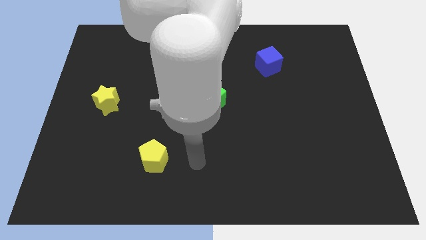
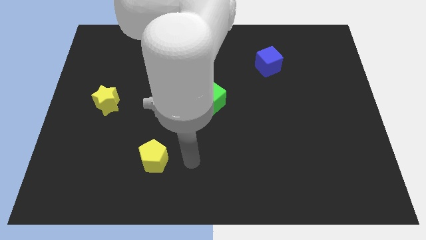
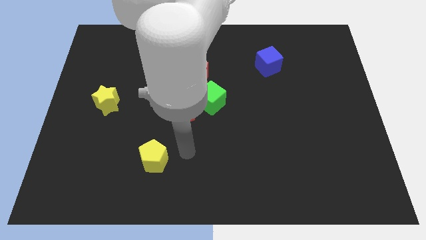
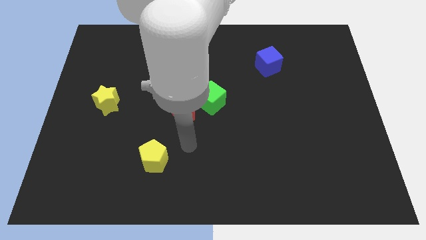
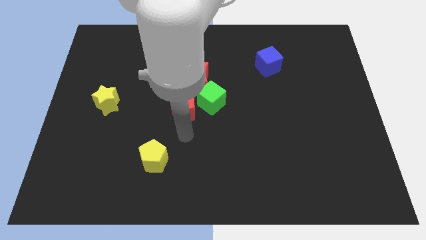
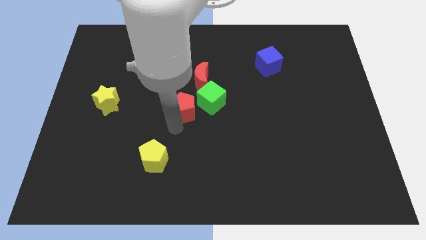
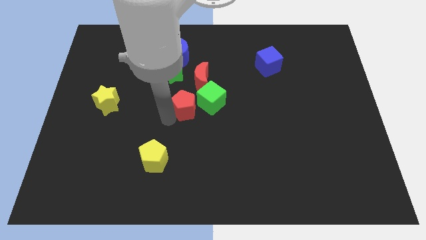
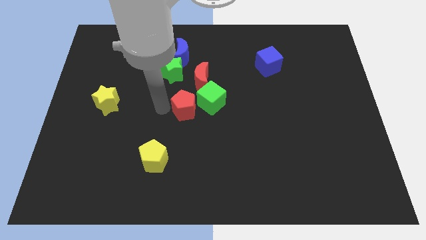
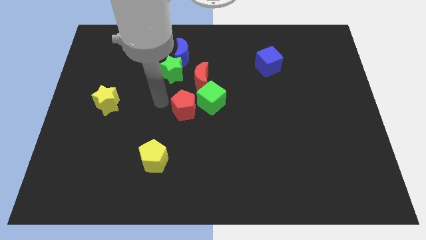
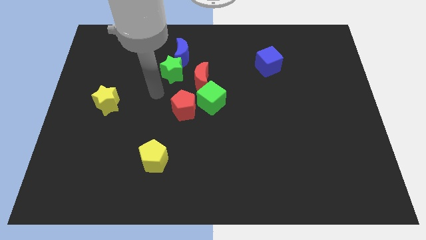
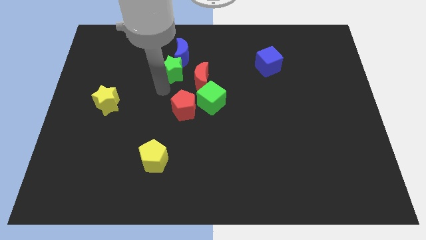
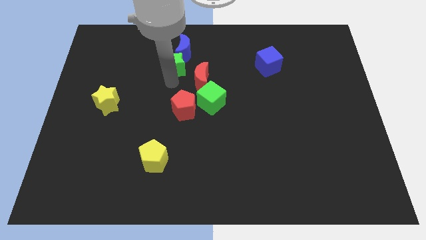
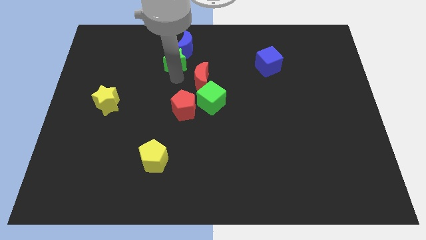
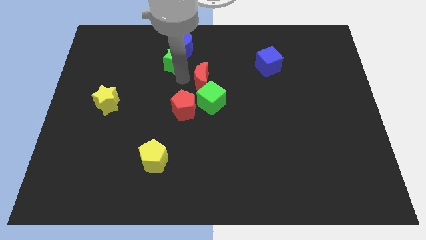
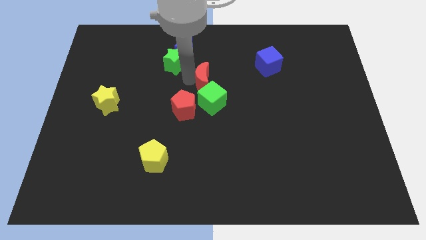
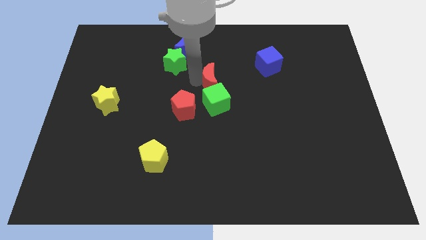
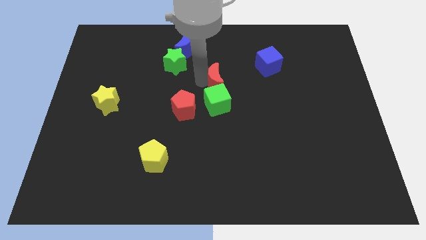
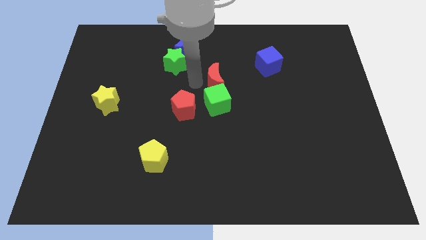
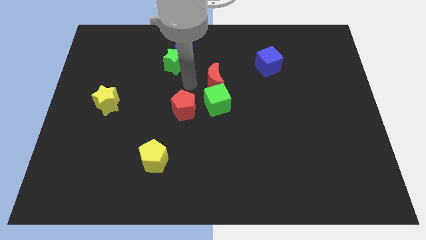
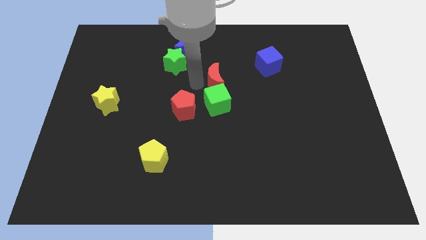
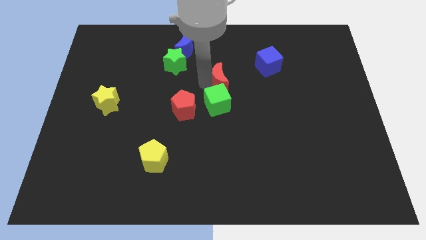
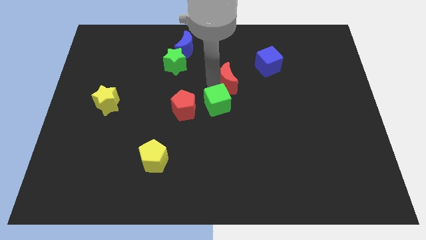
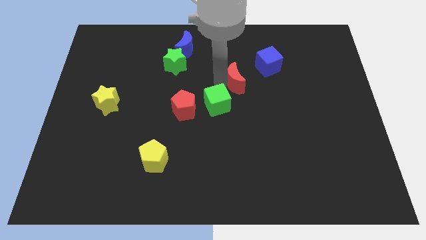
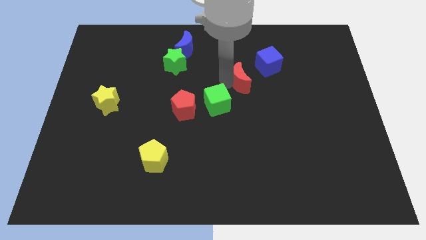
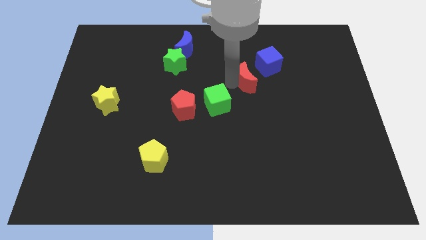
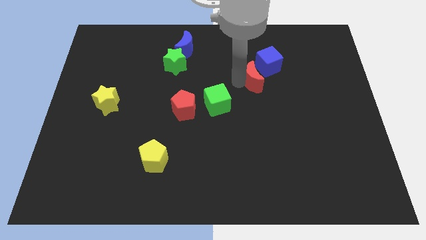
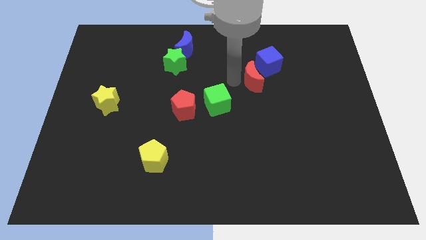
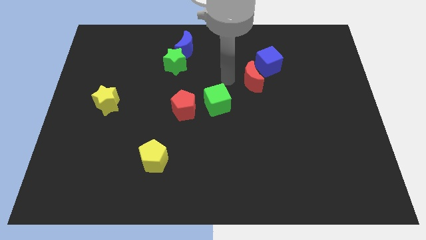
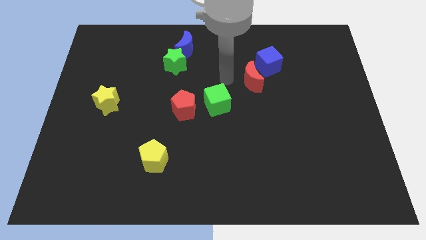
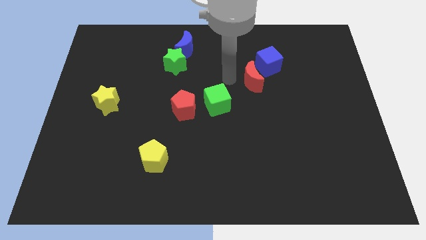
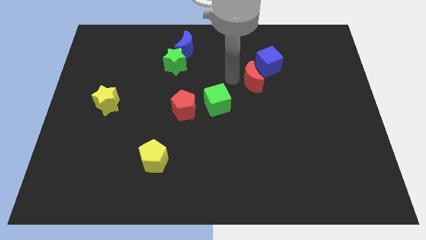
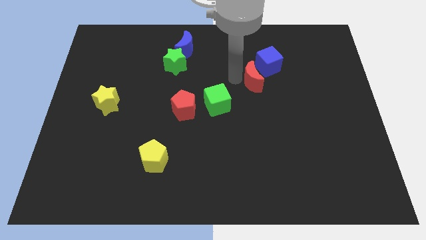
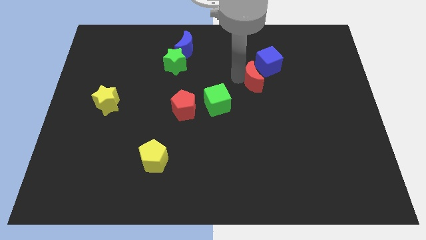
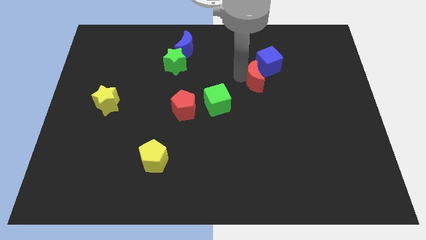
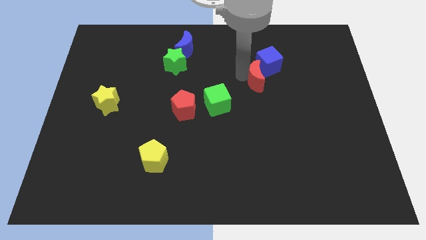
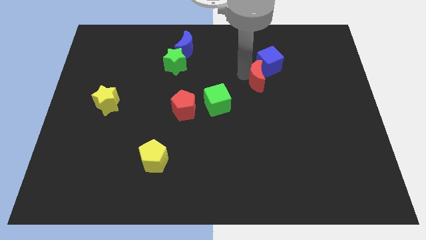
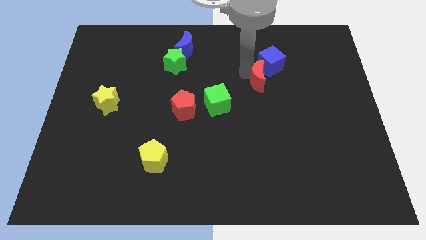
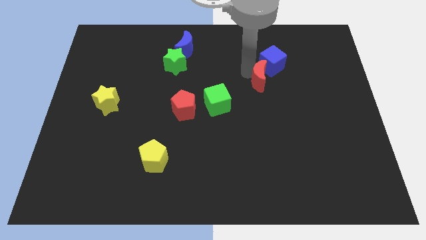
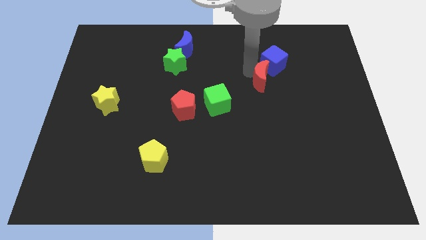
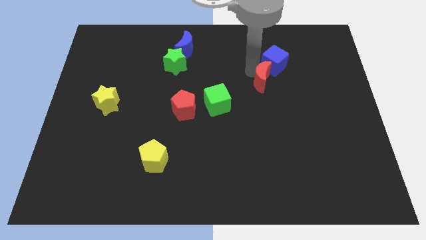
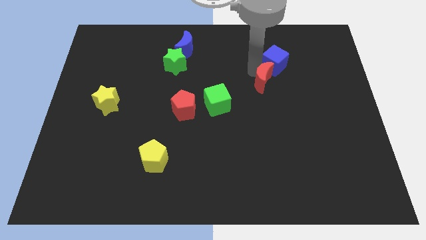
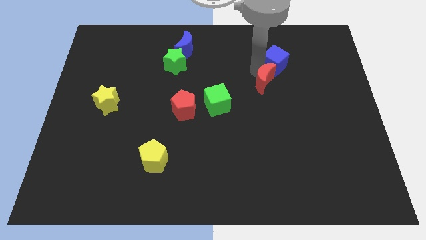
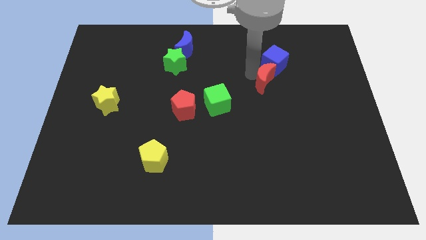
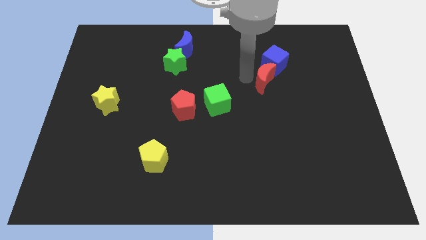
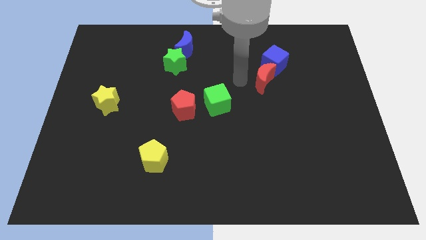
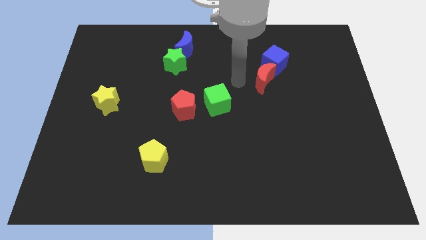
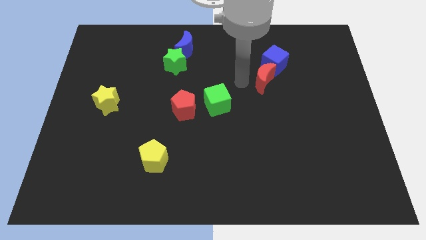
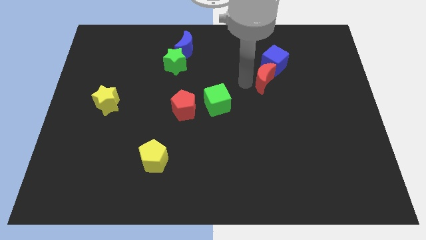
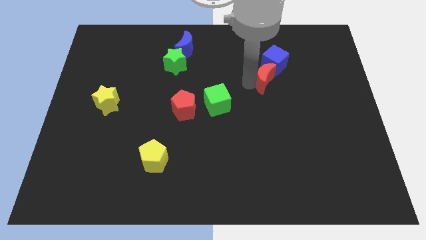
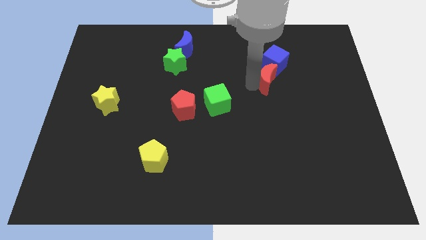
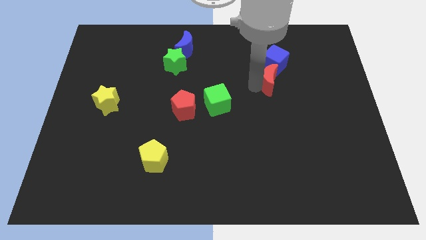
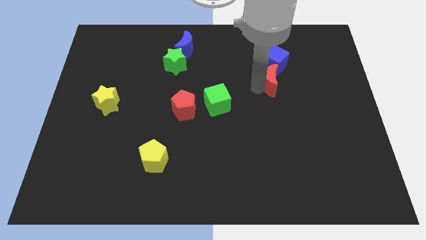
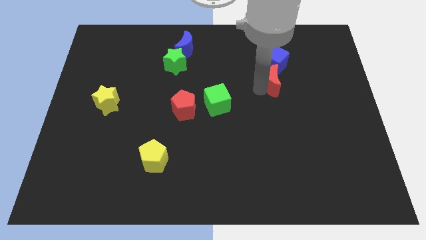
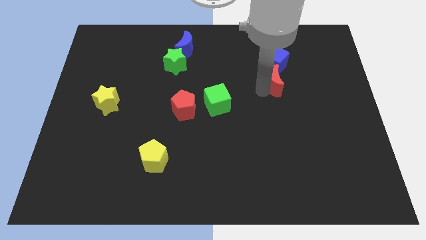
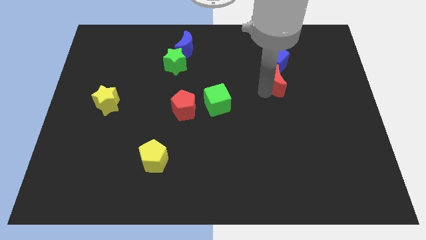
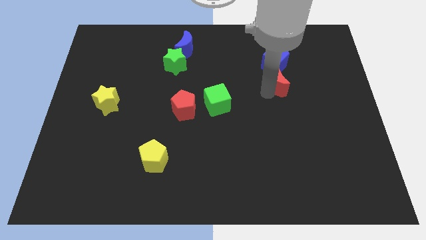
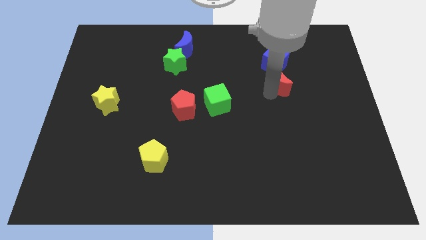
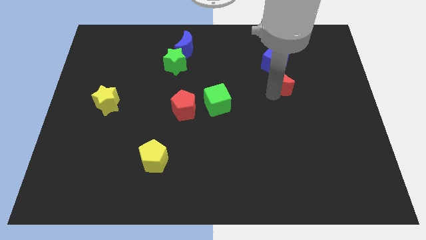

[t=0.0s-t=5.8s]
put the red moon diagonally down and to the right of the blue cube

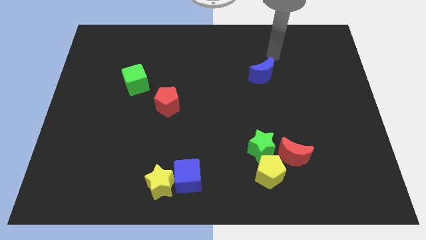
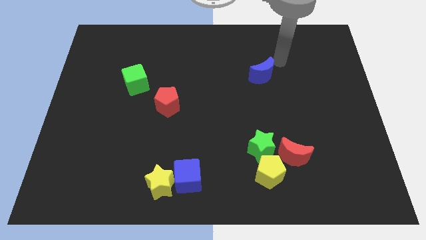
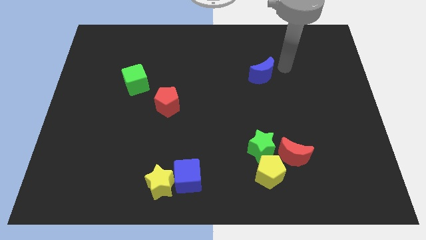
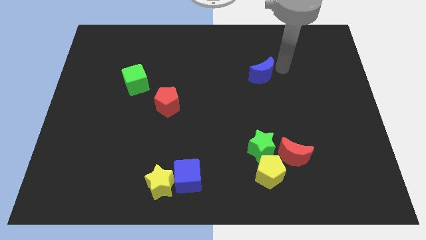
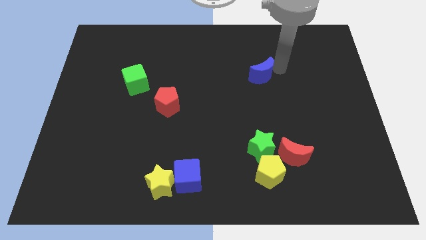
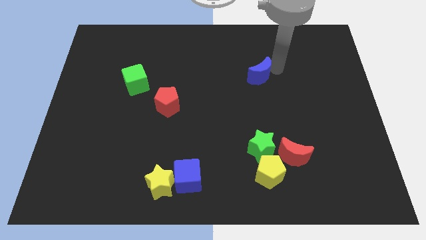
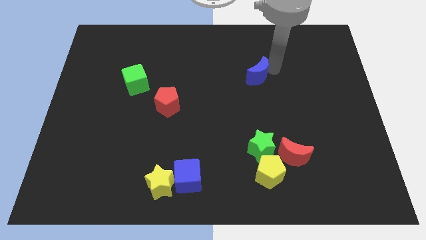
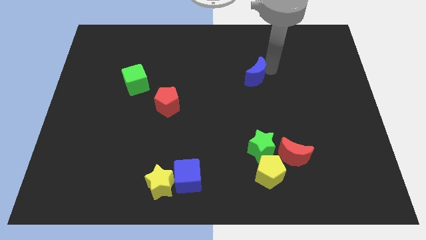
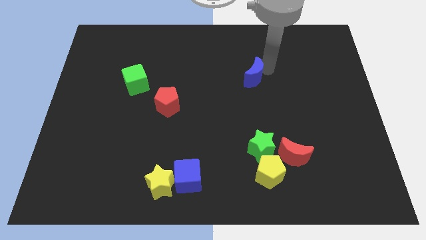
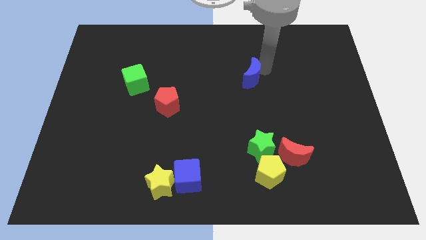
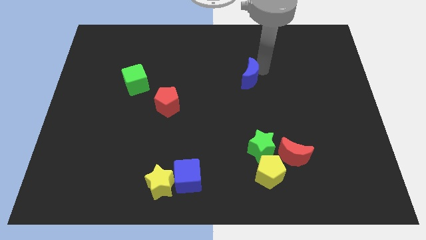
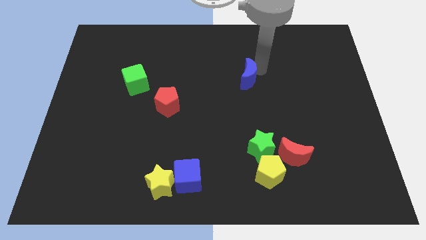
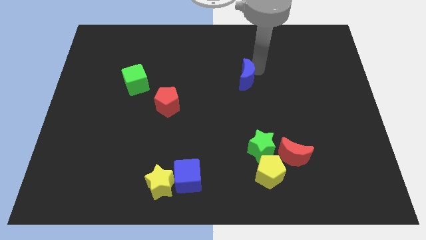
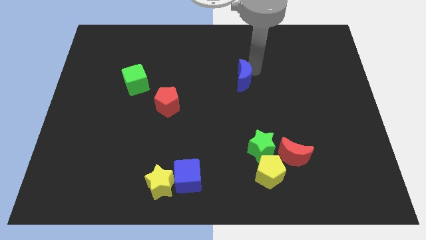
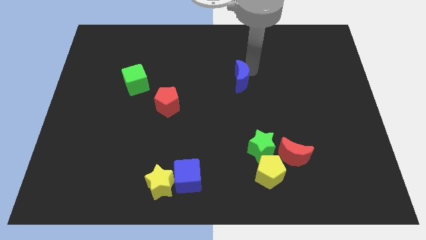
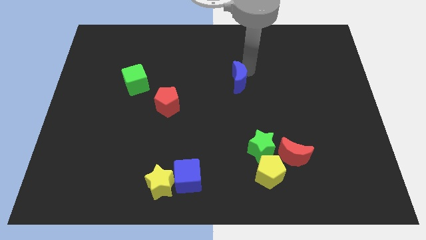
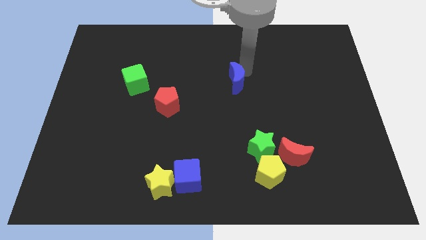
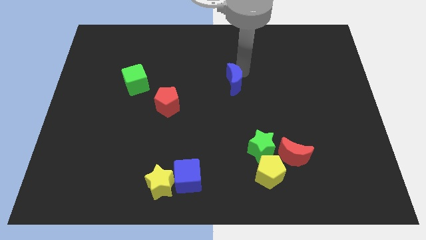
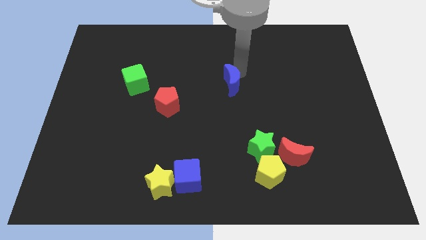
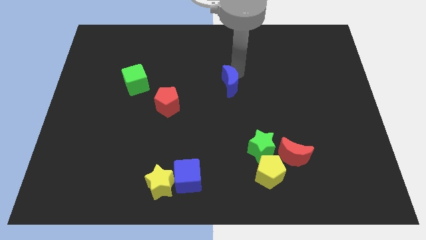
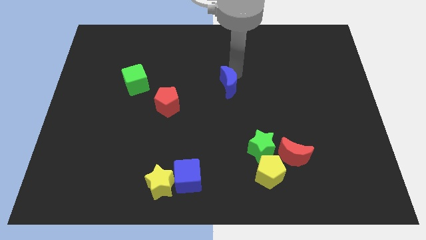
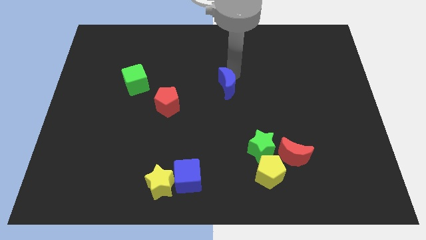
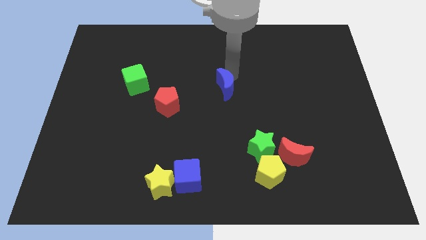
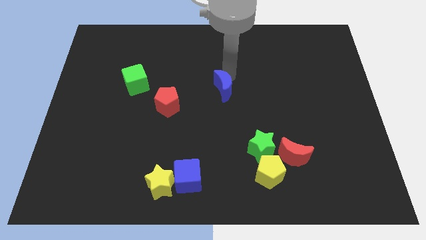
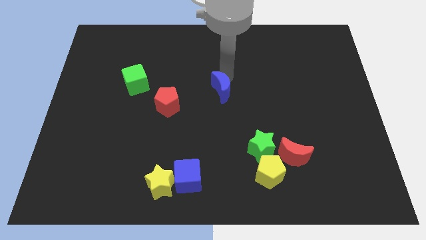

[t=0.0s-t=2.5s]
slide the blue moon just right of the red pentagon
